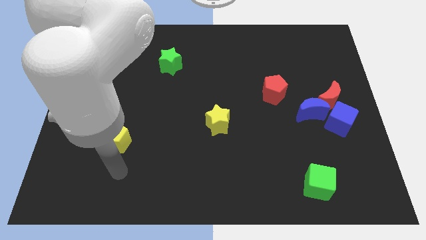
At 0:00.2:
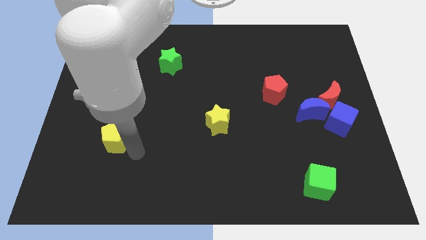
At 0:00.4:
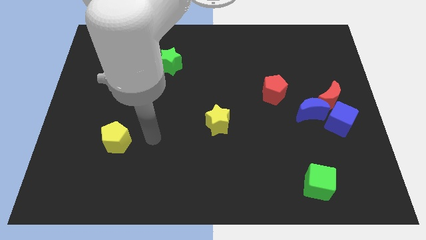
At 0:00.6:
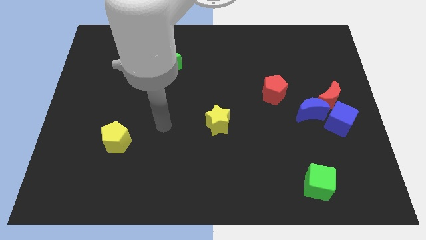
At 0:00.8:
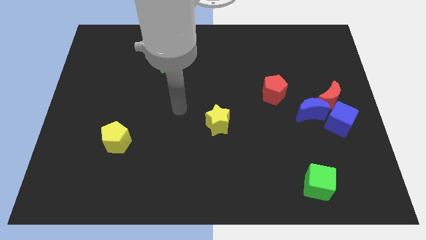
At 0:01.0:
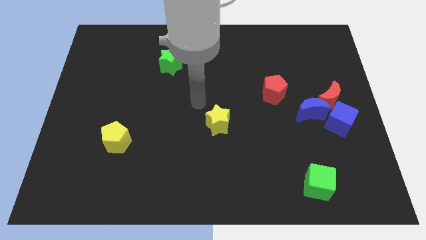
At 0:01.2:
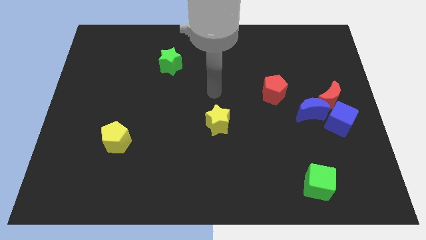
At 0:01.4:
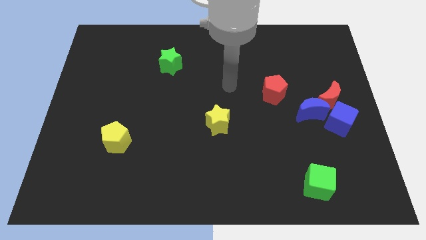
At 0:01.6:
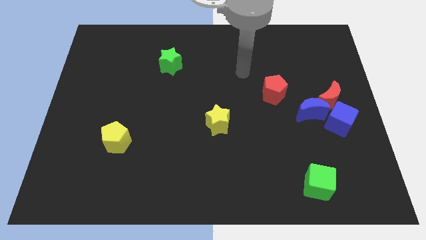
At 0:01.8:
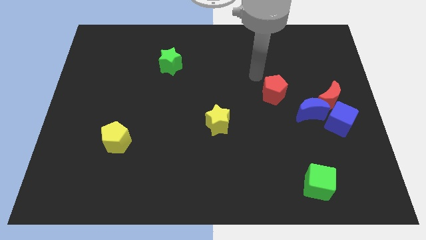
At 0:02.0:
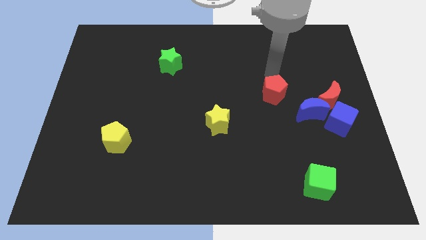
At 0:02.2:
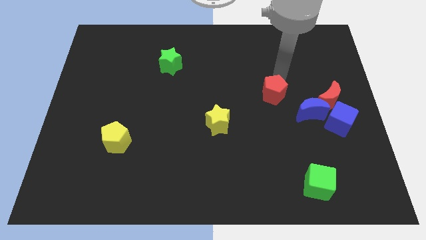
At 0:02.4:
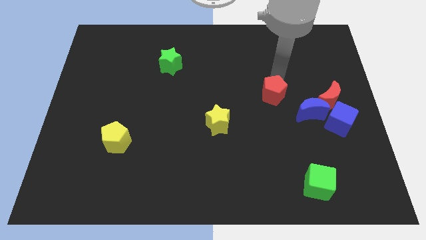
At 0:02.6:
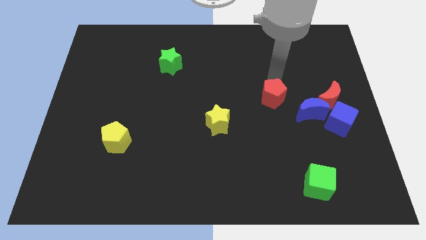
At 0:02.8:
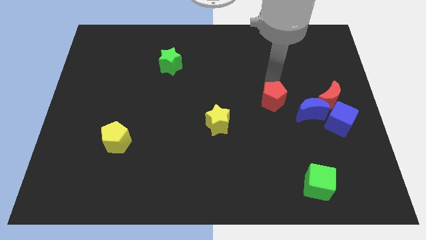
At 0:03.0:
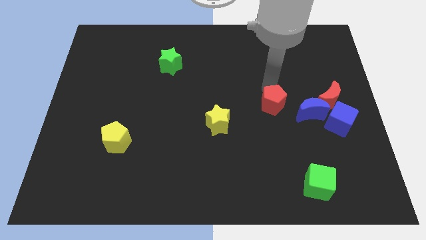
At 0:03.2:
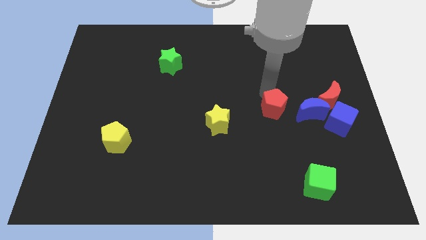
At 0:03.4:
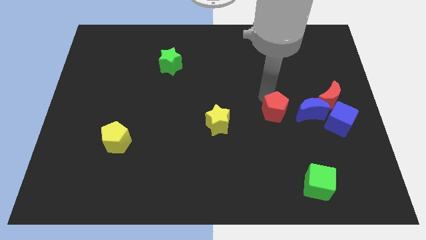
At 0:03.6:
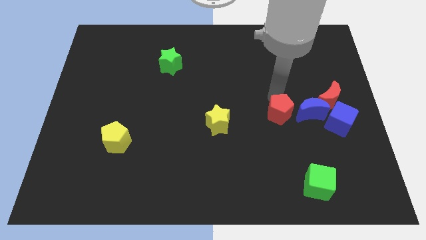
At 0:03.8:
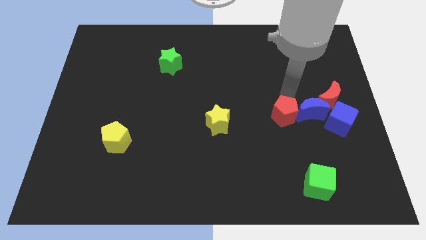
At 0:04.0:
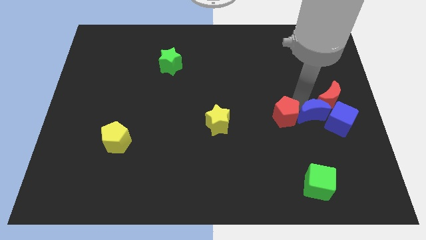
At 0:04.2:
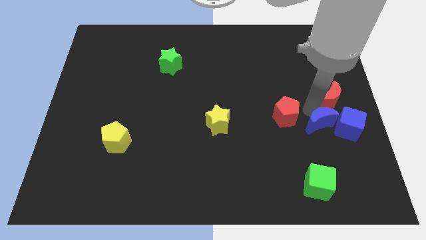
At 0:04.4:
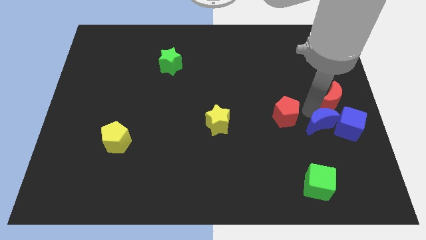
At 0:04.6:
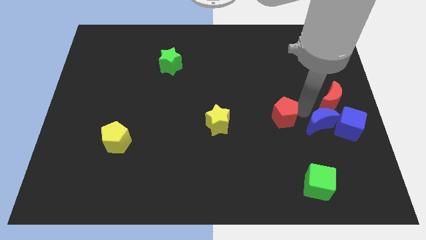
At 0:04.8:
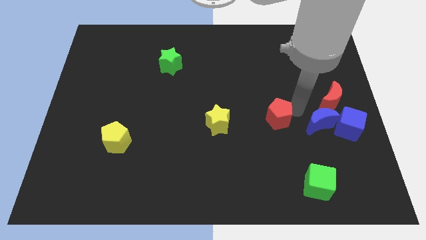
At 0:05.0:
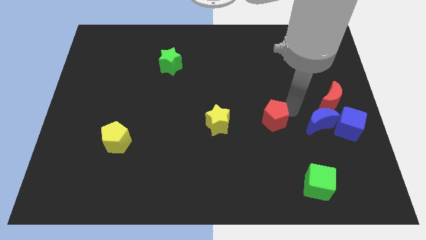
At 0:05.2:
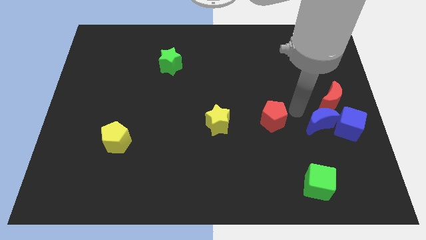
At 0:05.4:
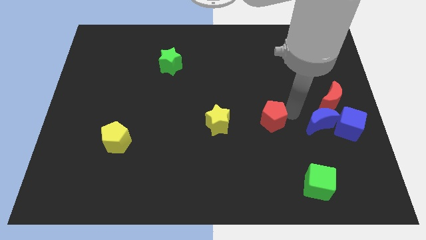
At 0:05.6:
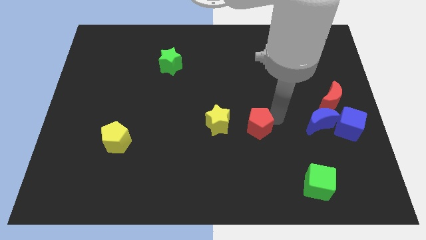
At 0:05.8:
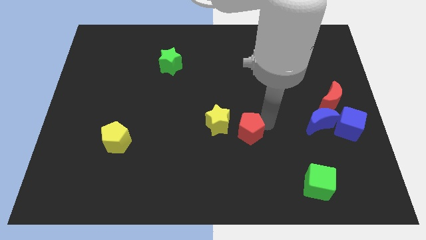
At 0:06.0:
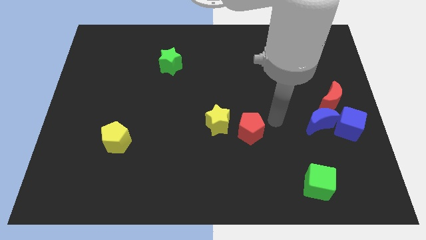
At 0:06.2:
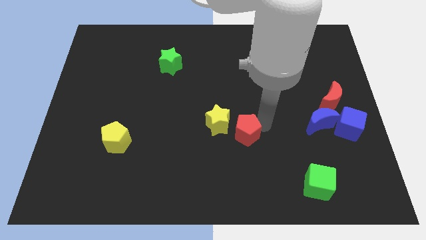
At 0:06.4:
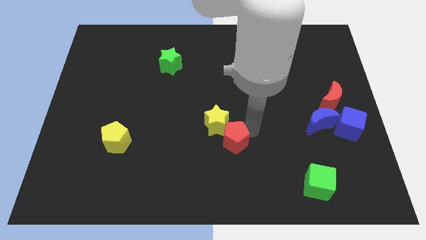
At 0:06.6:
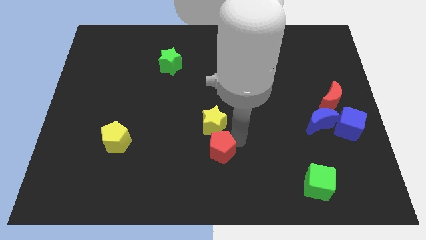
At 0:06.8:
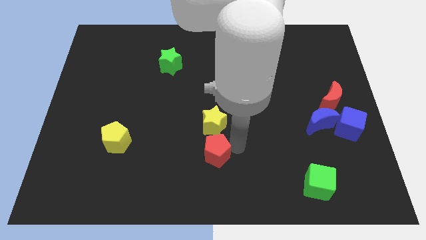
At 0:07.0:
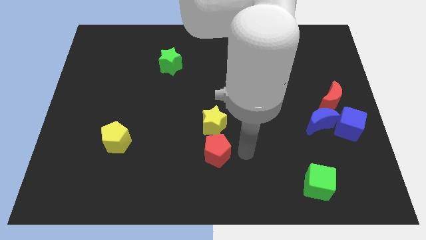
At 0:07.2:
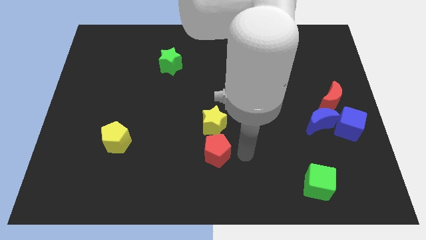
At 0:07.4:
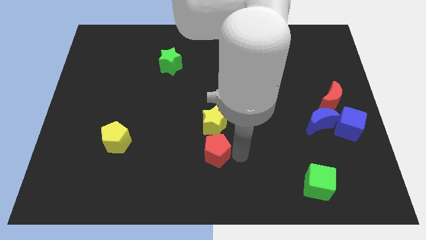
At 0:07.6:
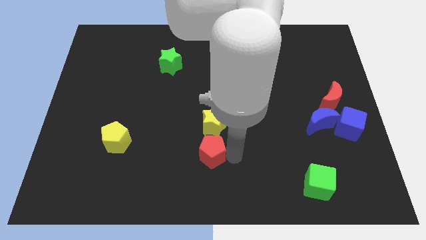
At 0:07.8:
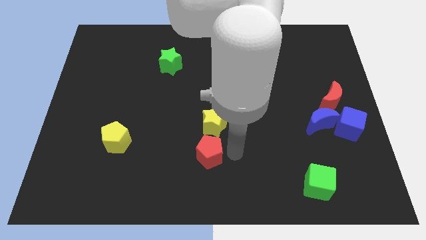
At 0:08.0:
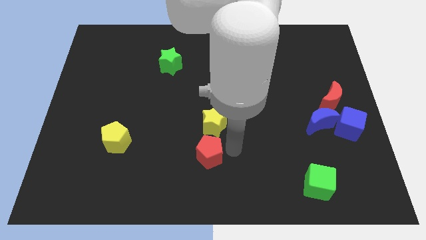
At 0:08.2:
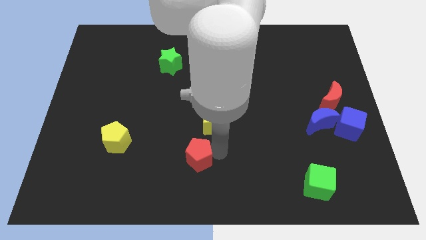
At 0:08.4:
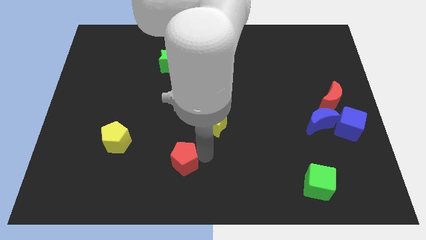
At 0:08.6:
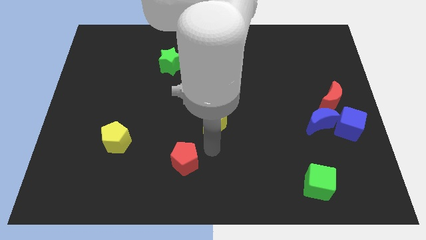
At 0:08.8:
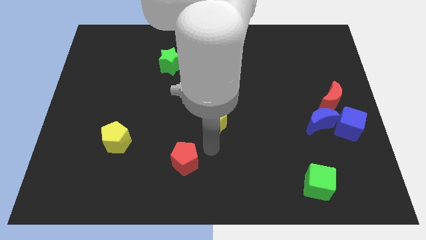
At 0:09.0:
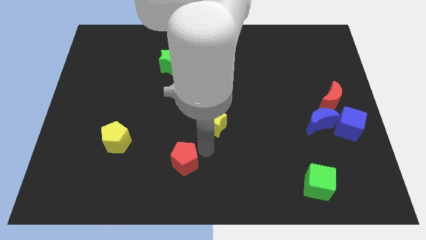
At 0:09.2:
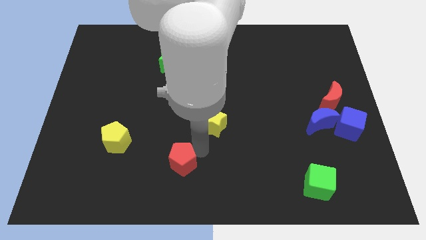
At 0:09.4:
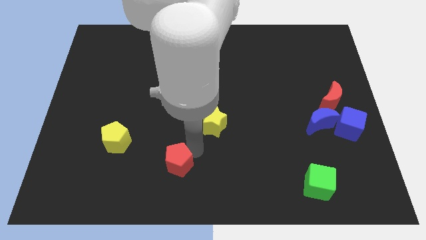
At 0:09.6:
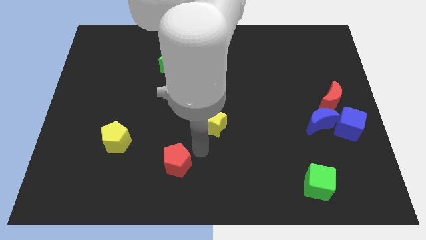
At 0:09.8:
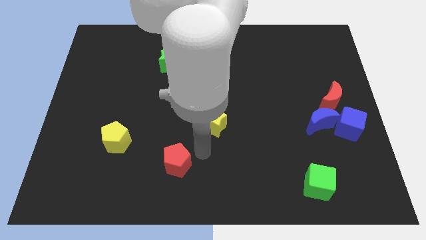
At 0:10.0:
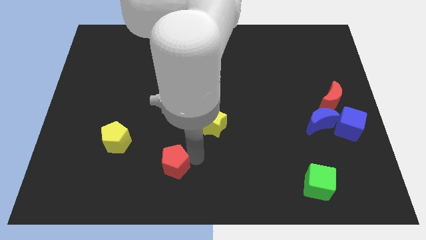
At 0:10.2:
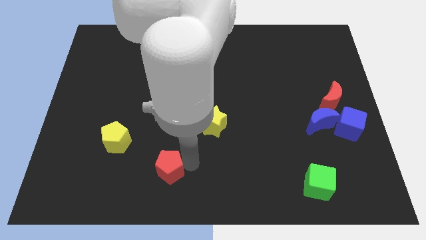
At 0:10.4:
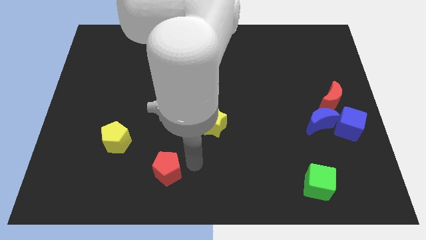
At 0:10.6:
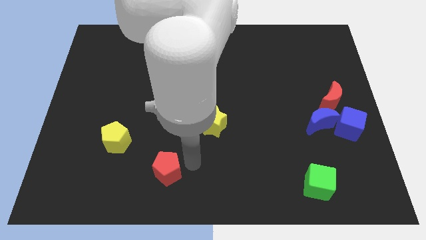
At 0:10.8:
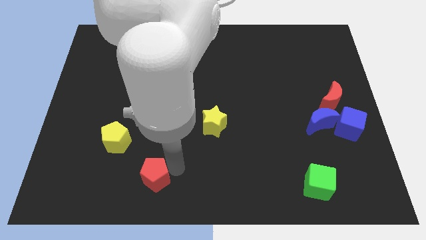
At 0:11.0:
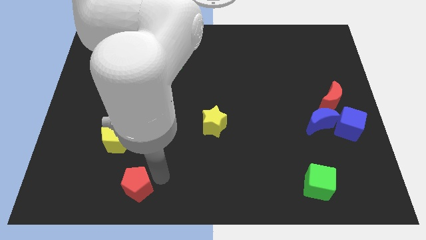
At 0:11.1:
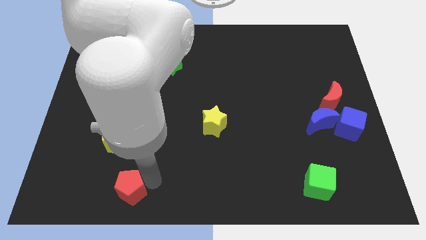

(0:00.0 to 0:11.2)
push the red pentagon below the yellow pentagon

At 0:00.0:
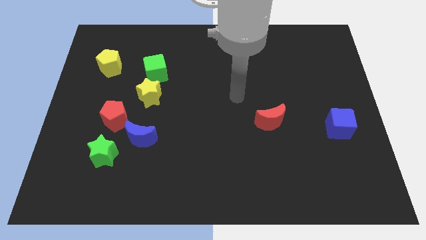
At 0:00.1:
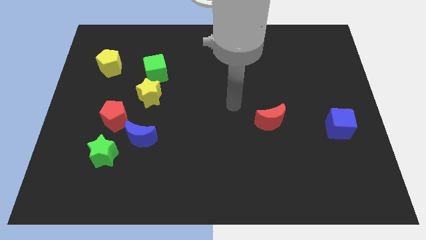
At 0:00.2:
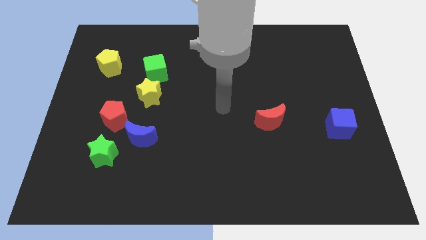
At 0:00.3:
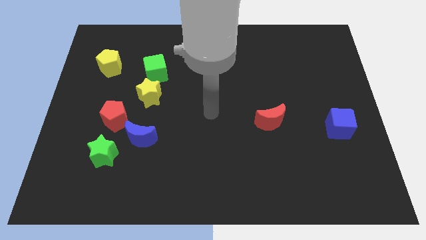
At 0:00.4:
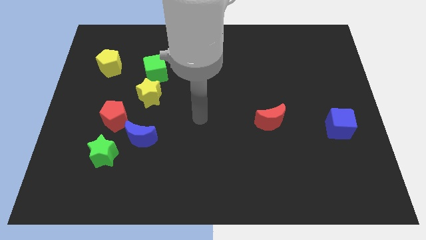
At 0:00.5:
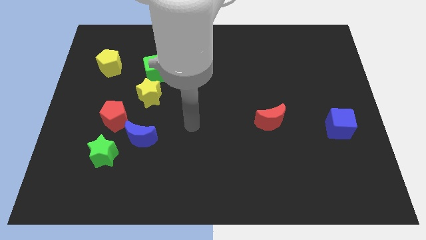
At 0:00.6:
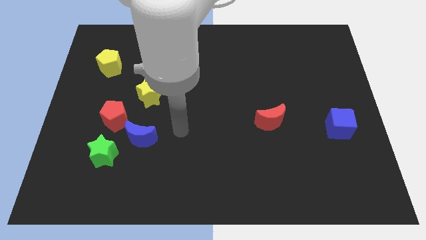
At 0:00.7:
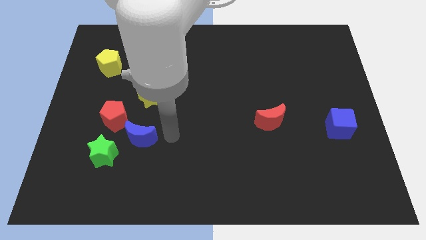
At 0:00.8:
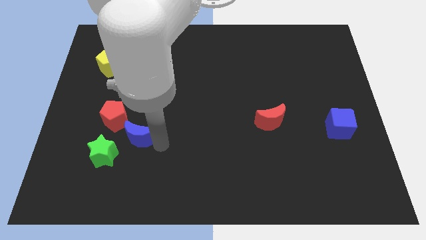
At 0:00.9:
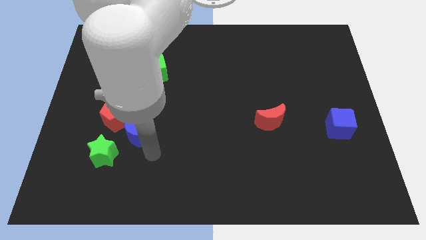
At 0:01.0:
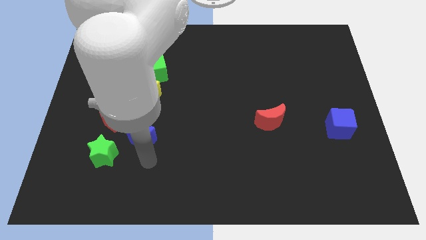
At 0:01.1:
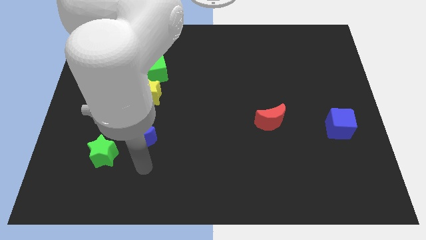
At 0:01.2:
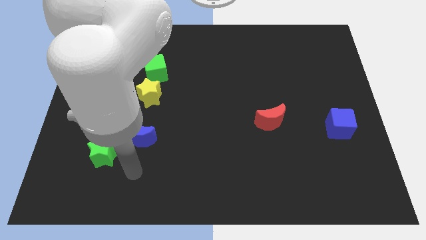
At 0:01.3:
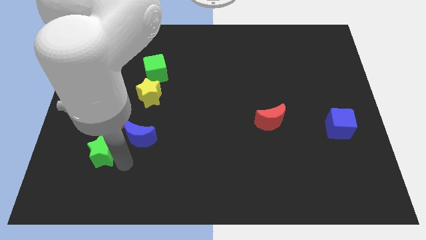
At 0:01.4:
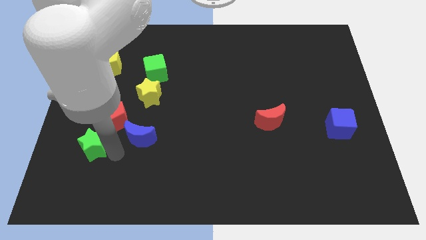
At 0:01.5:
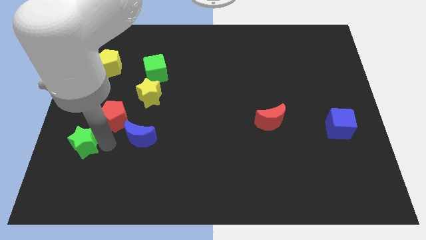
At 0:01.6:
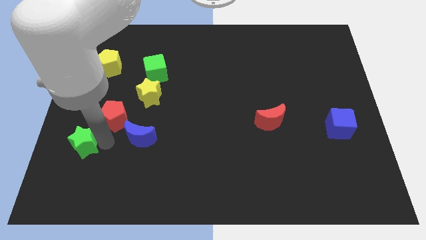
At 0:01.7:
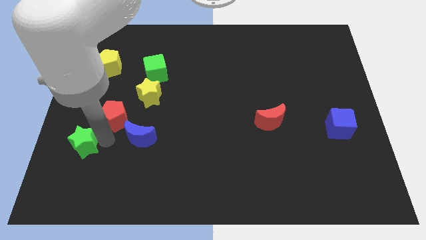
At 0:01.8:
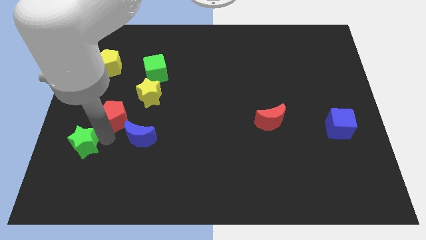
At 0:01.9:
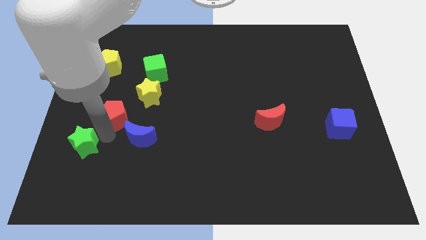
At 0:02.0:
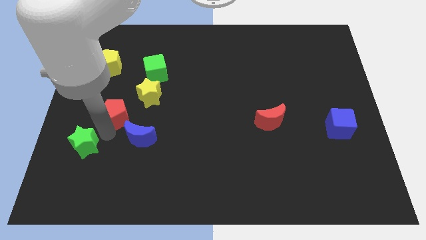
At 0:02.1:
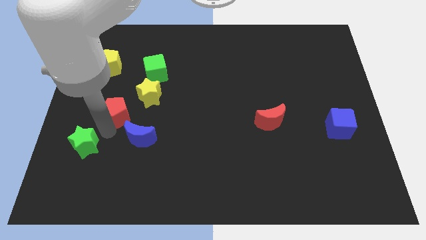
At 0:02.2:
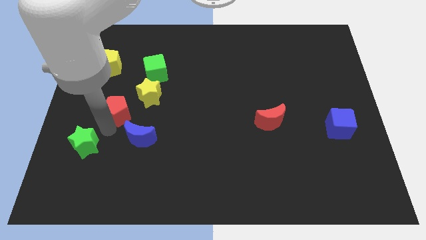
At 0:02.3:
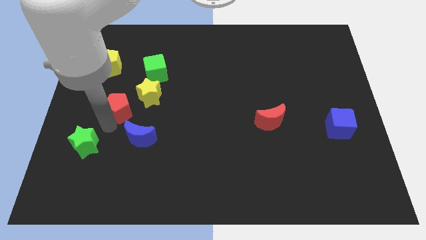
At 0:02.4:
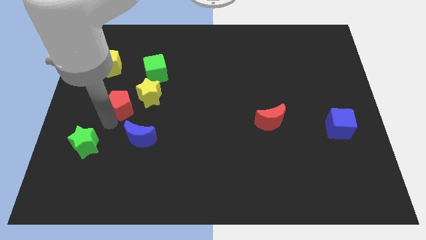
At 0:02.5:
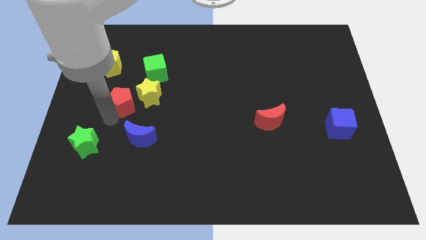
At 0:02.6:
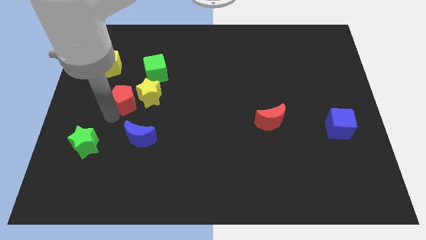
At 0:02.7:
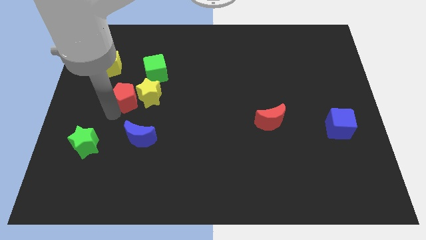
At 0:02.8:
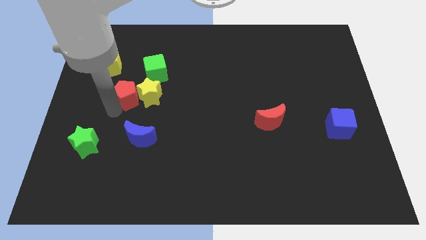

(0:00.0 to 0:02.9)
put the red pentagon to the bottom right side of the yellow pentagon
